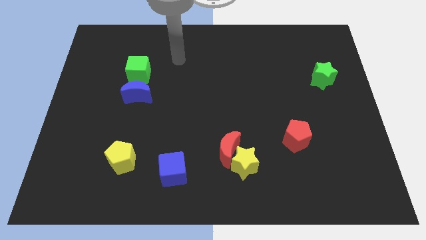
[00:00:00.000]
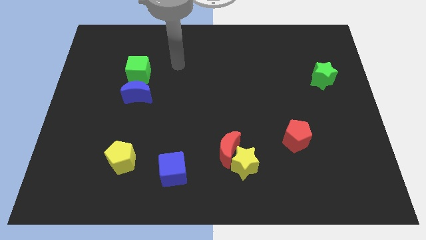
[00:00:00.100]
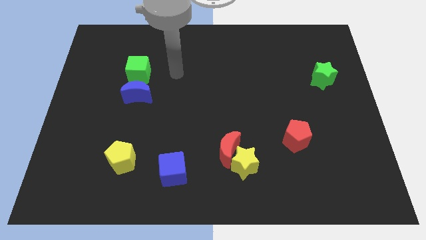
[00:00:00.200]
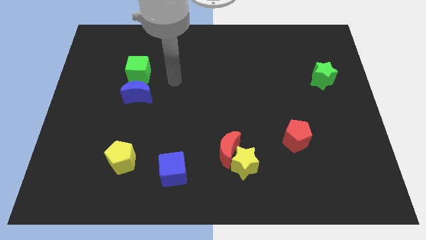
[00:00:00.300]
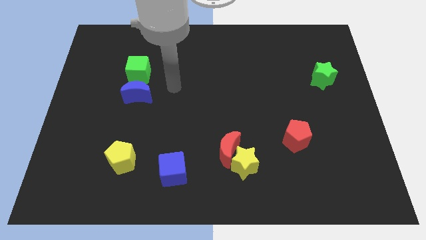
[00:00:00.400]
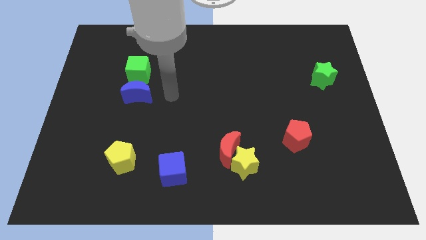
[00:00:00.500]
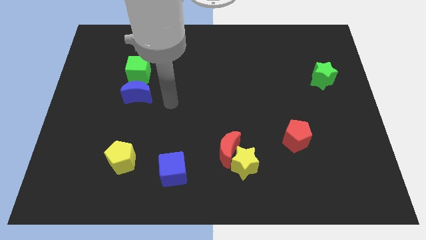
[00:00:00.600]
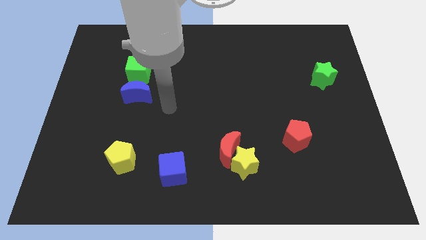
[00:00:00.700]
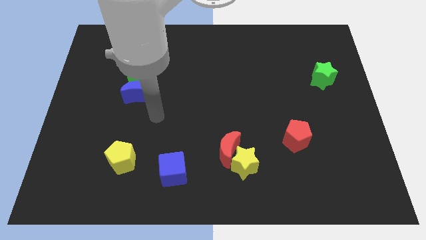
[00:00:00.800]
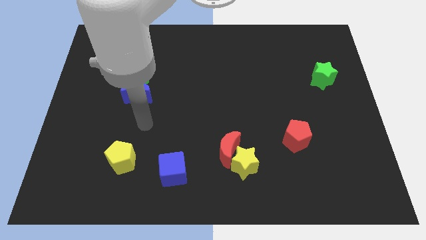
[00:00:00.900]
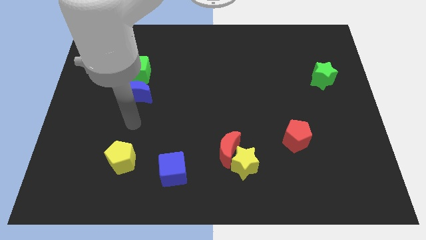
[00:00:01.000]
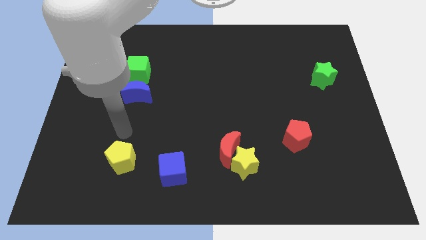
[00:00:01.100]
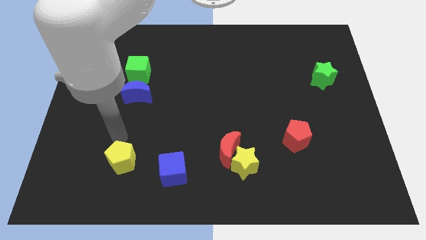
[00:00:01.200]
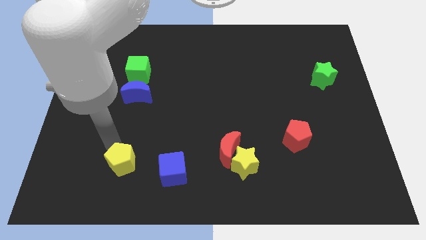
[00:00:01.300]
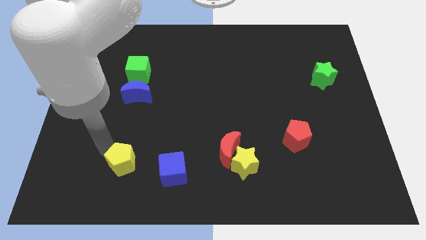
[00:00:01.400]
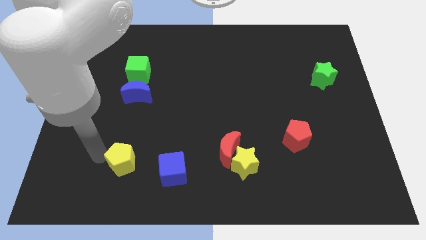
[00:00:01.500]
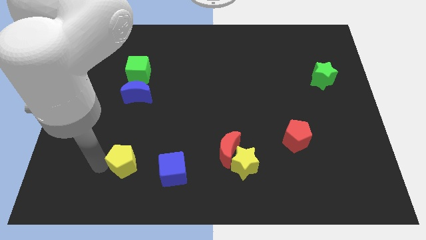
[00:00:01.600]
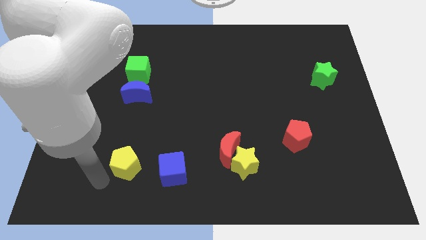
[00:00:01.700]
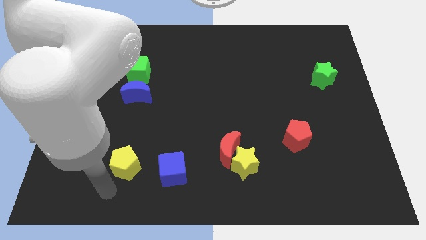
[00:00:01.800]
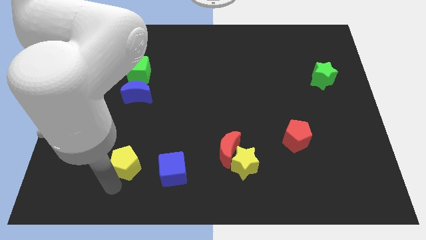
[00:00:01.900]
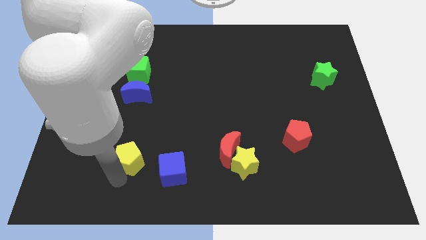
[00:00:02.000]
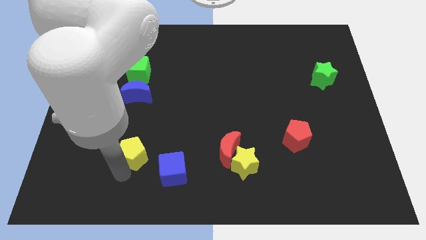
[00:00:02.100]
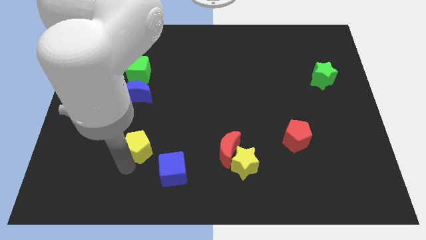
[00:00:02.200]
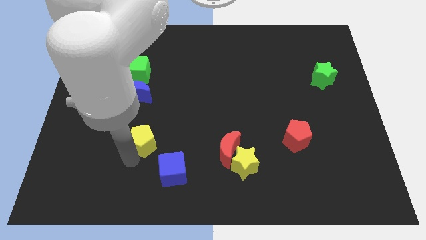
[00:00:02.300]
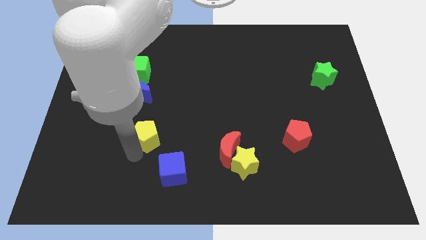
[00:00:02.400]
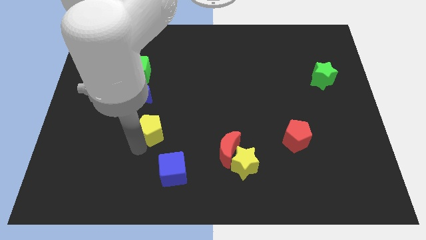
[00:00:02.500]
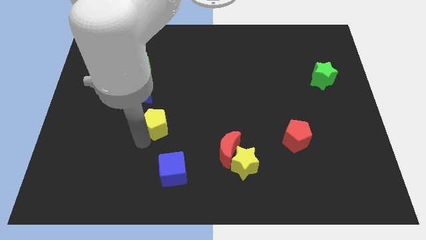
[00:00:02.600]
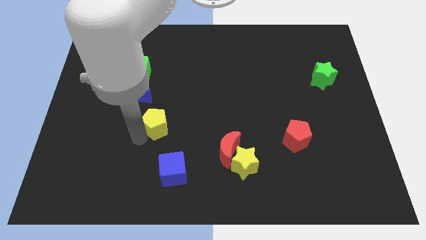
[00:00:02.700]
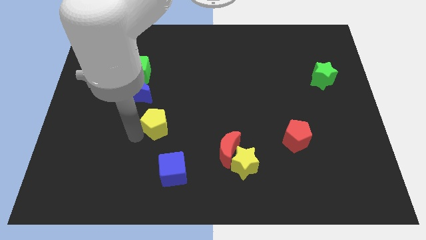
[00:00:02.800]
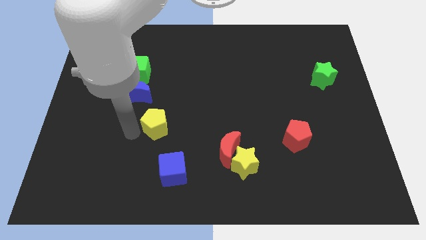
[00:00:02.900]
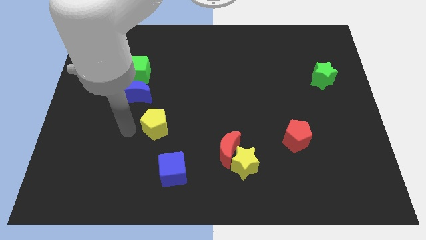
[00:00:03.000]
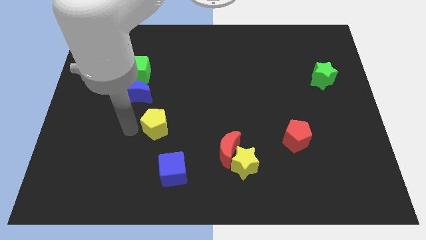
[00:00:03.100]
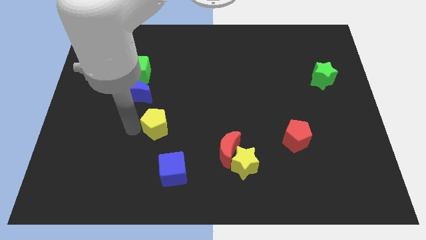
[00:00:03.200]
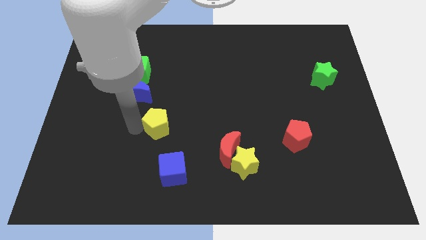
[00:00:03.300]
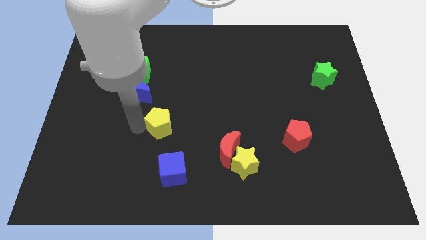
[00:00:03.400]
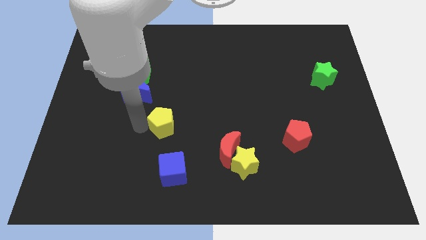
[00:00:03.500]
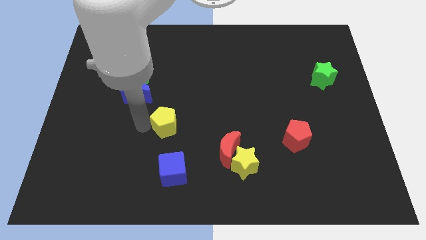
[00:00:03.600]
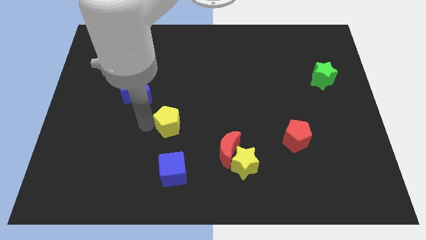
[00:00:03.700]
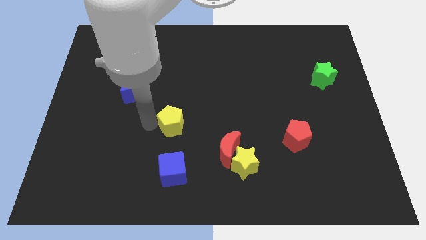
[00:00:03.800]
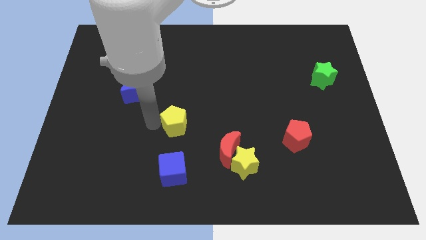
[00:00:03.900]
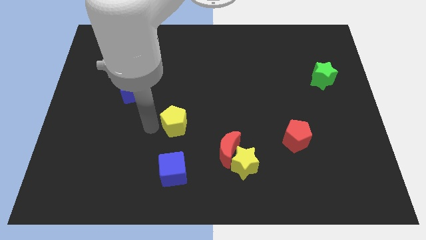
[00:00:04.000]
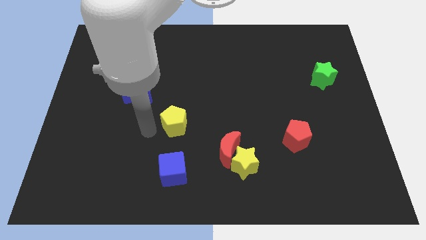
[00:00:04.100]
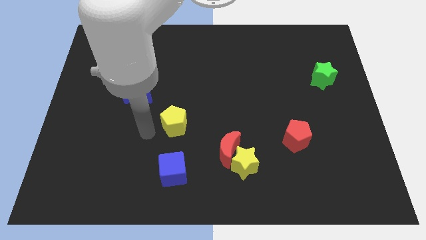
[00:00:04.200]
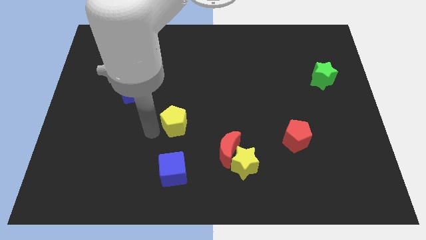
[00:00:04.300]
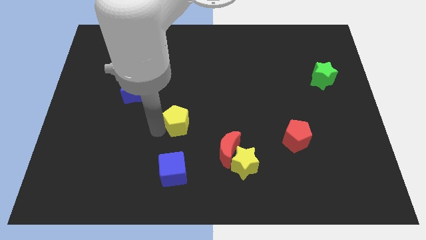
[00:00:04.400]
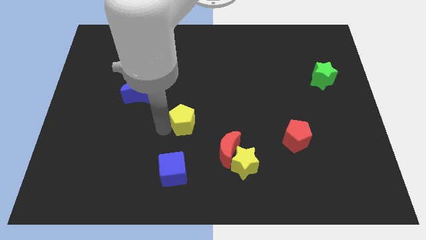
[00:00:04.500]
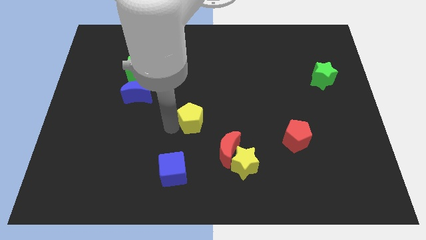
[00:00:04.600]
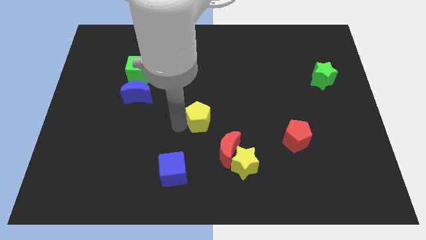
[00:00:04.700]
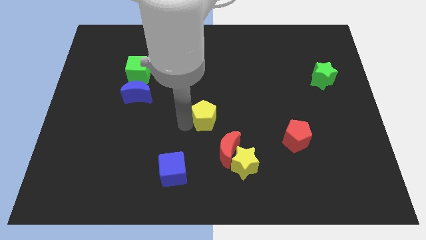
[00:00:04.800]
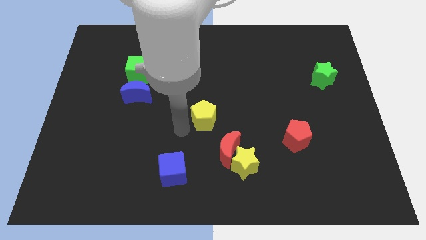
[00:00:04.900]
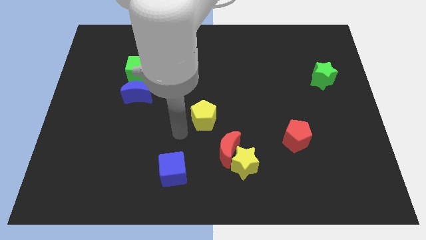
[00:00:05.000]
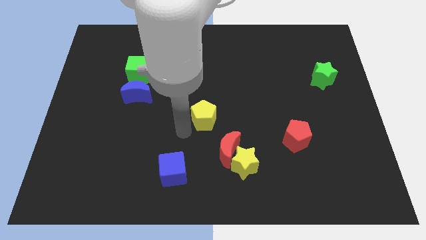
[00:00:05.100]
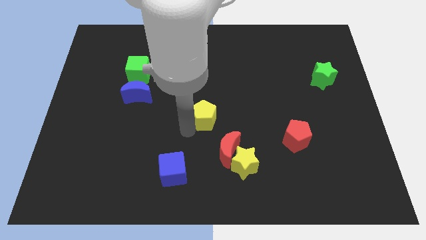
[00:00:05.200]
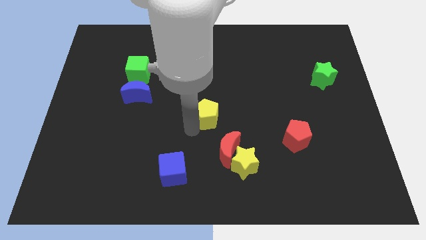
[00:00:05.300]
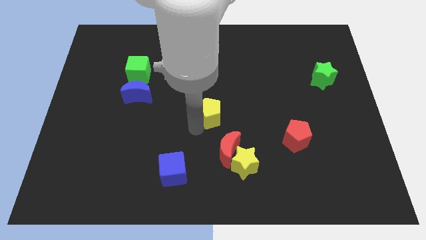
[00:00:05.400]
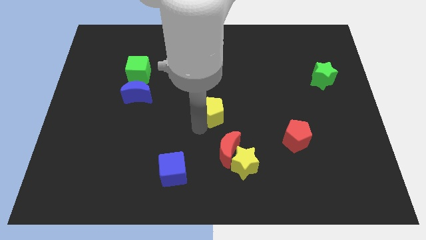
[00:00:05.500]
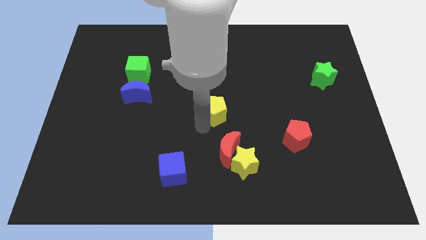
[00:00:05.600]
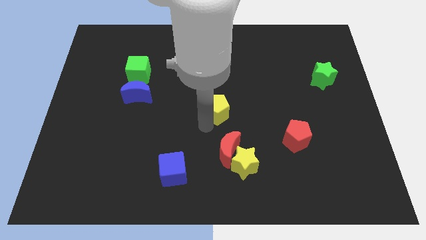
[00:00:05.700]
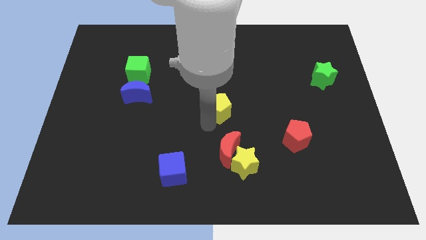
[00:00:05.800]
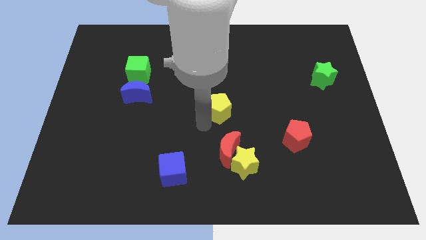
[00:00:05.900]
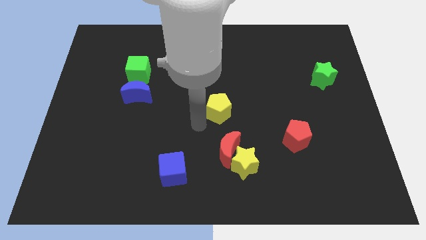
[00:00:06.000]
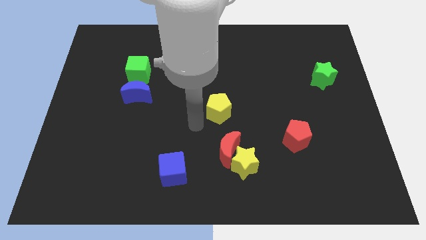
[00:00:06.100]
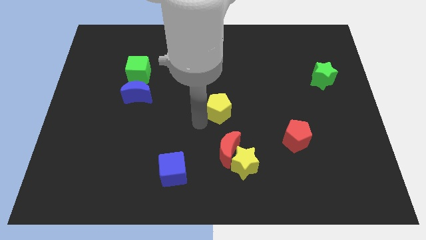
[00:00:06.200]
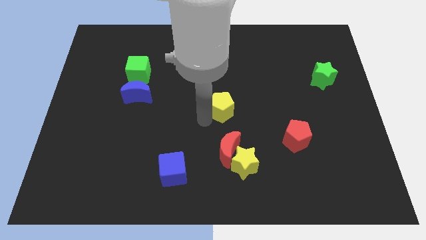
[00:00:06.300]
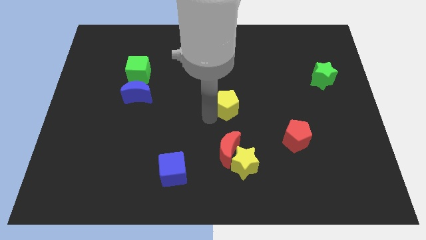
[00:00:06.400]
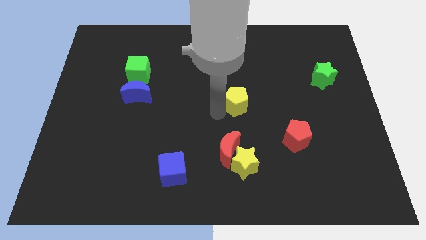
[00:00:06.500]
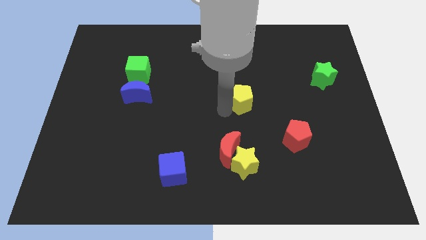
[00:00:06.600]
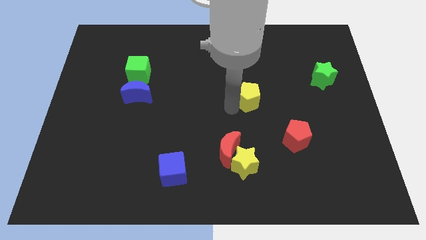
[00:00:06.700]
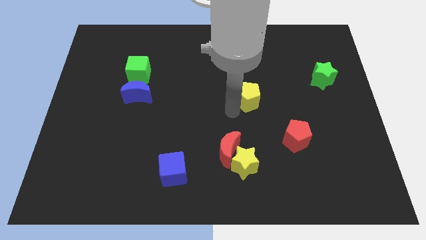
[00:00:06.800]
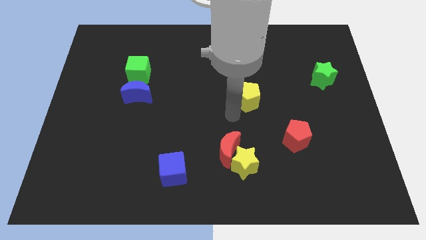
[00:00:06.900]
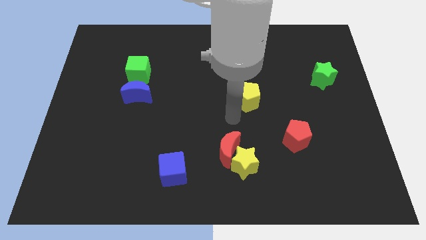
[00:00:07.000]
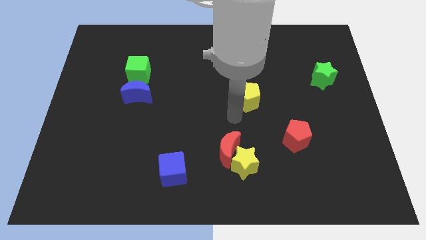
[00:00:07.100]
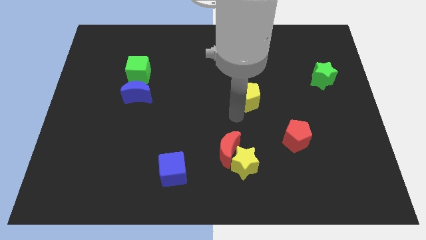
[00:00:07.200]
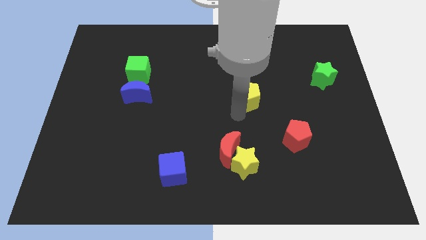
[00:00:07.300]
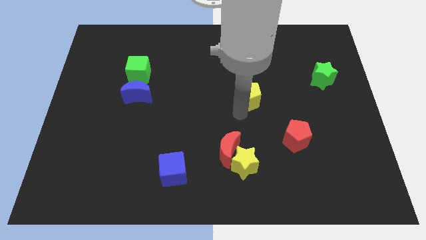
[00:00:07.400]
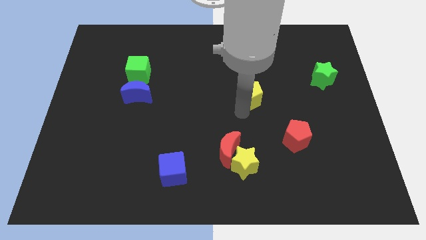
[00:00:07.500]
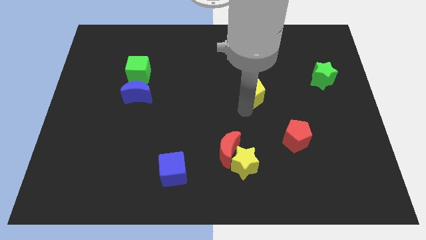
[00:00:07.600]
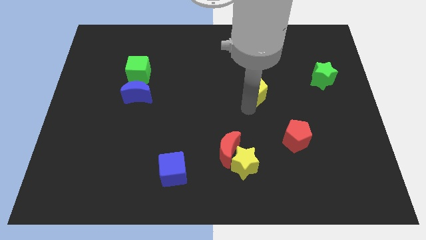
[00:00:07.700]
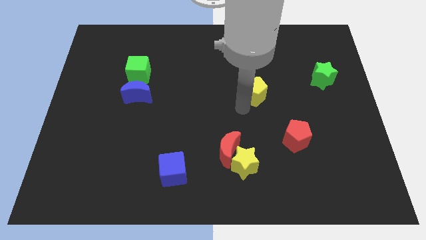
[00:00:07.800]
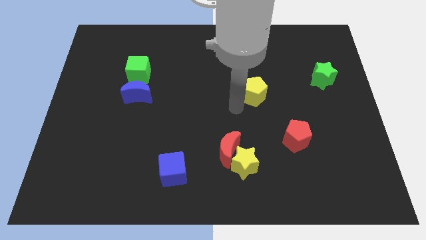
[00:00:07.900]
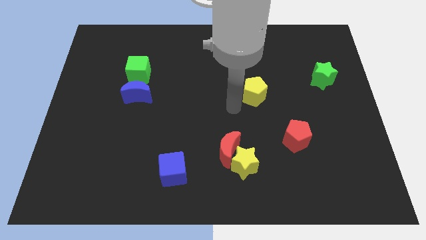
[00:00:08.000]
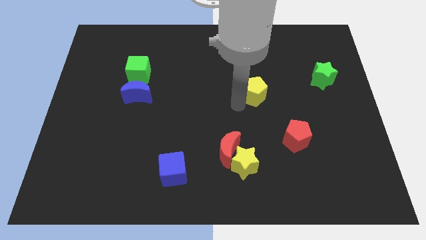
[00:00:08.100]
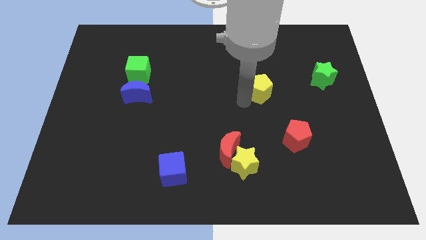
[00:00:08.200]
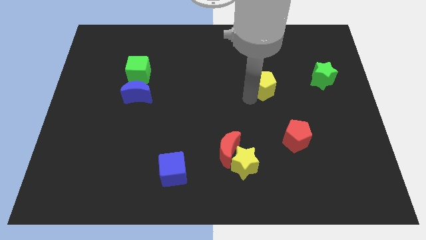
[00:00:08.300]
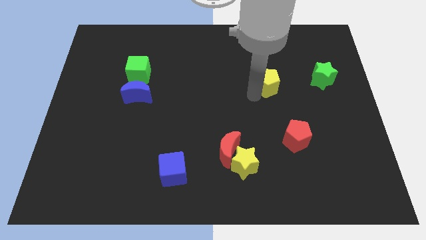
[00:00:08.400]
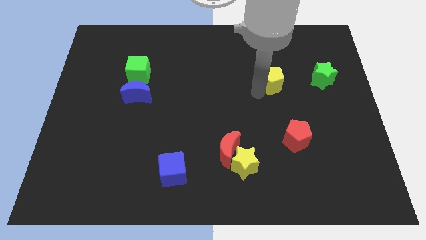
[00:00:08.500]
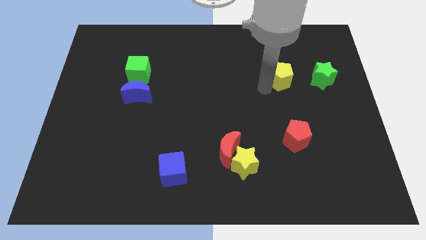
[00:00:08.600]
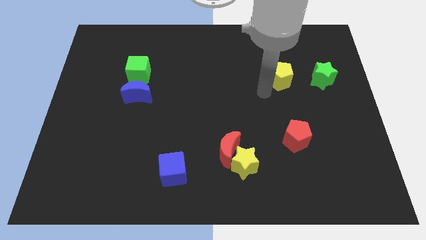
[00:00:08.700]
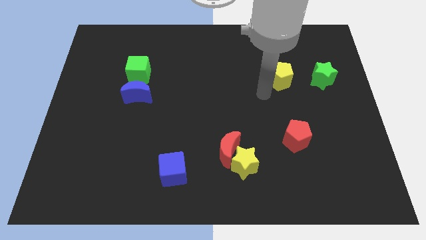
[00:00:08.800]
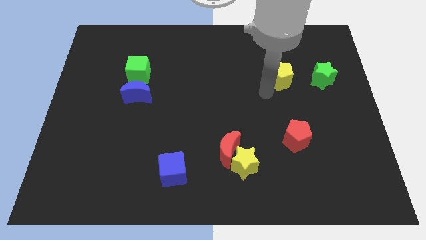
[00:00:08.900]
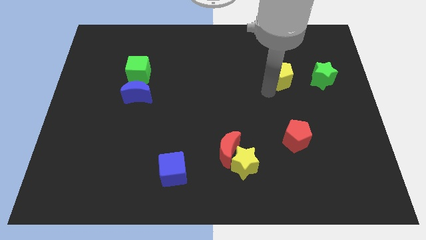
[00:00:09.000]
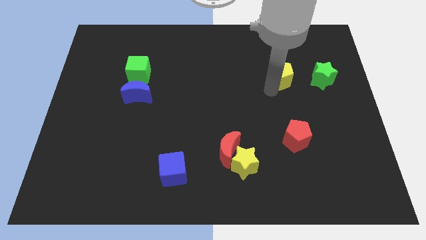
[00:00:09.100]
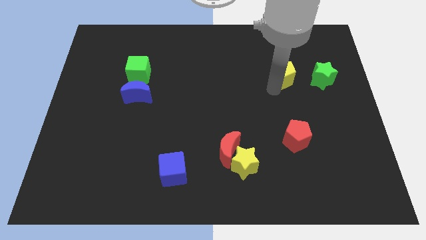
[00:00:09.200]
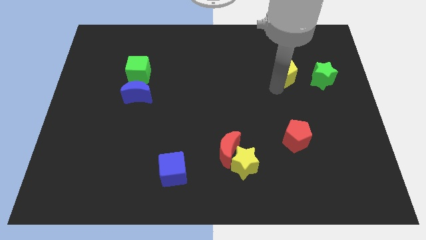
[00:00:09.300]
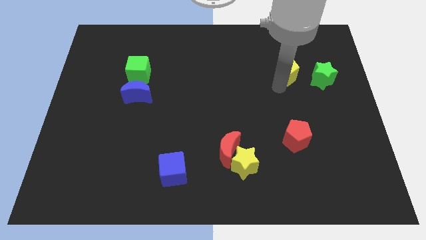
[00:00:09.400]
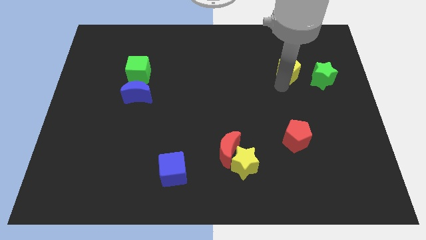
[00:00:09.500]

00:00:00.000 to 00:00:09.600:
move the yellow pentagon diagonally up and to the left of the green star
